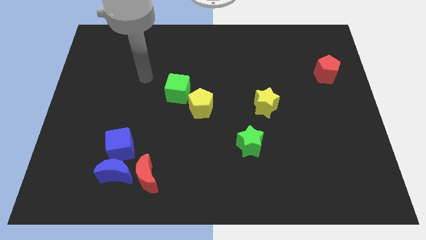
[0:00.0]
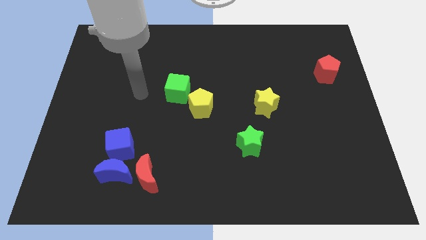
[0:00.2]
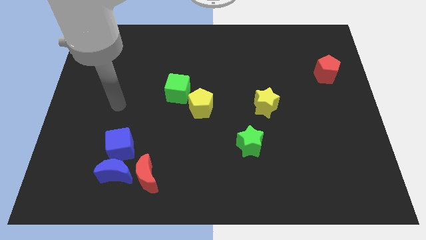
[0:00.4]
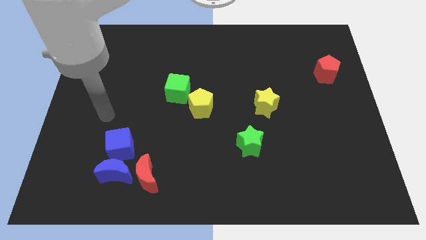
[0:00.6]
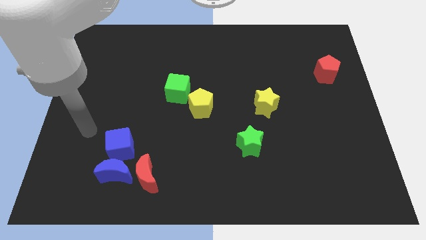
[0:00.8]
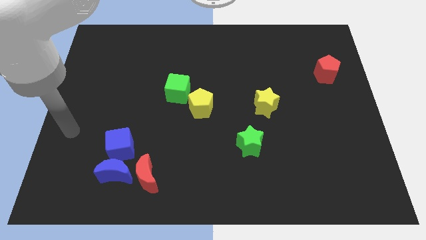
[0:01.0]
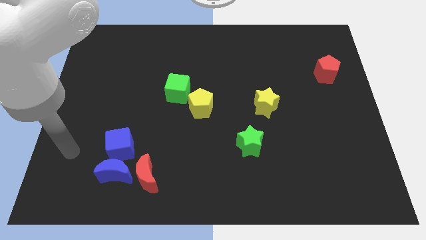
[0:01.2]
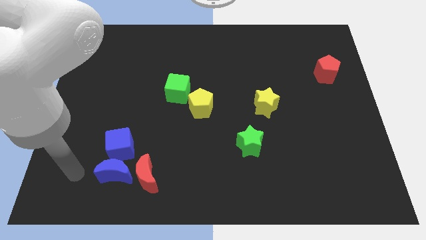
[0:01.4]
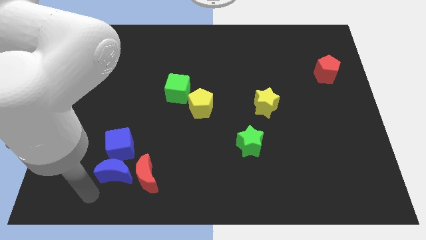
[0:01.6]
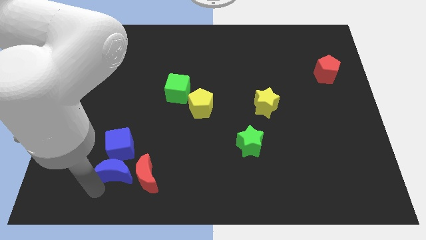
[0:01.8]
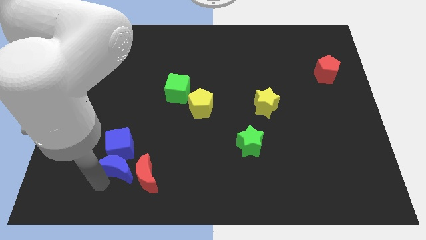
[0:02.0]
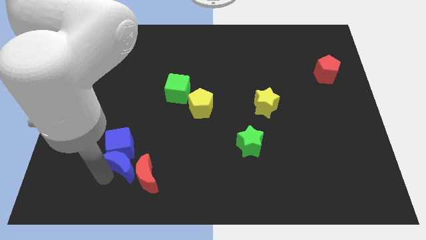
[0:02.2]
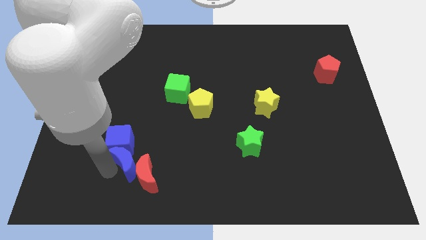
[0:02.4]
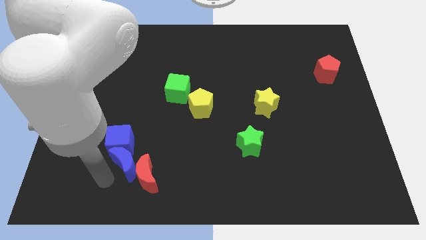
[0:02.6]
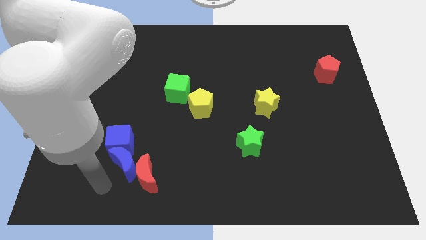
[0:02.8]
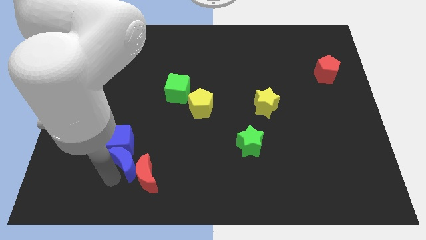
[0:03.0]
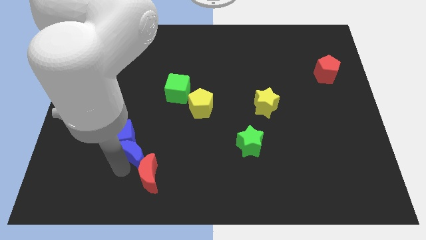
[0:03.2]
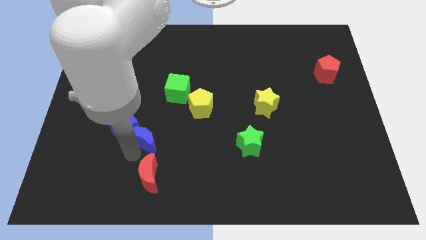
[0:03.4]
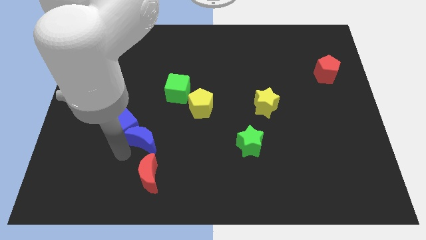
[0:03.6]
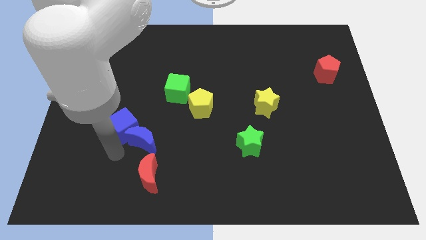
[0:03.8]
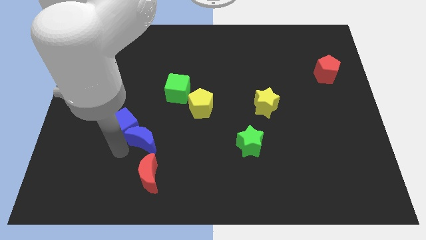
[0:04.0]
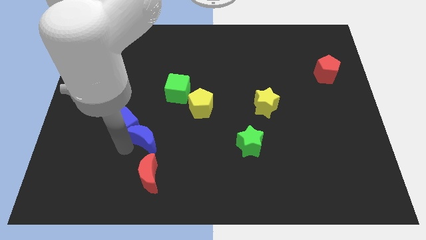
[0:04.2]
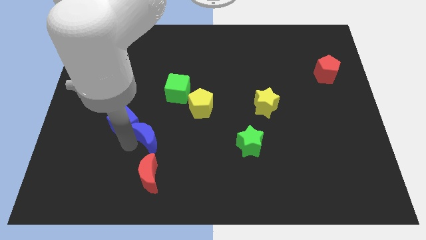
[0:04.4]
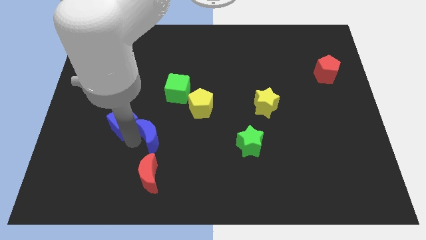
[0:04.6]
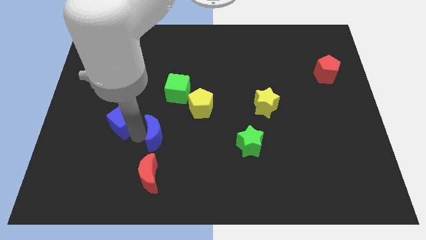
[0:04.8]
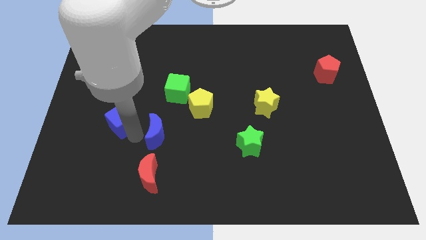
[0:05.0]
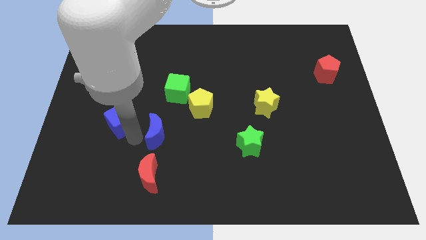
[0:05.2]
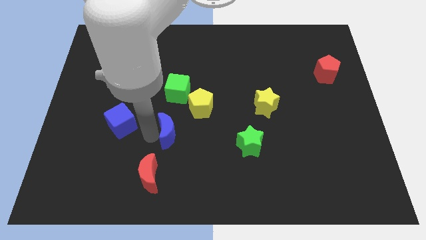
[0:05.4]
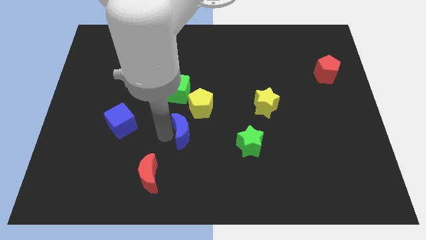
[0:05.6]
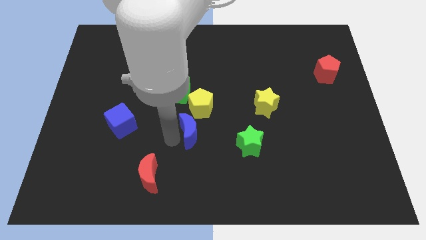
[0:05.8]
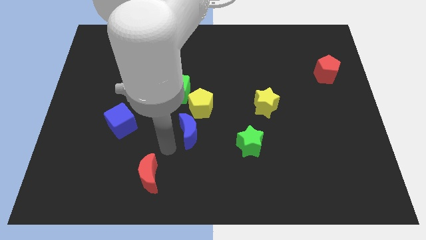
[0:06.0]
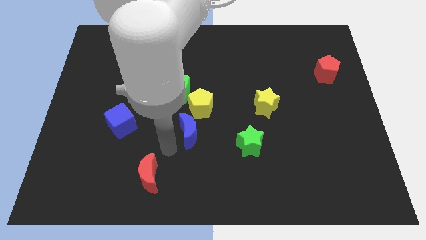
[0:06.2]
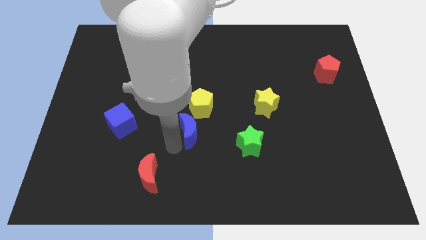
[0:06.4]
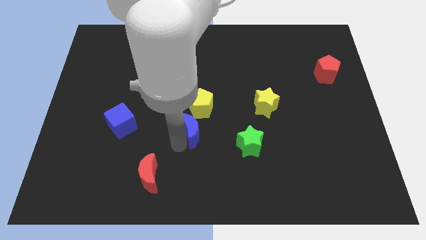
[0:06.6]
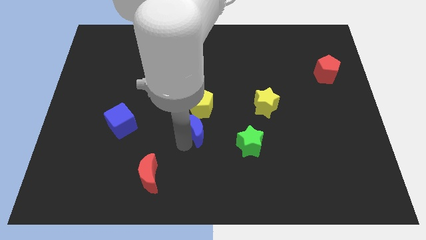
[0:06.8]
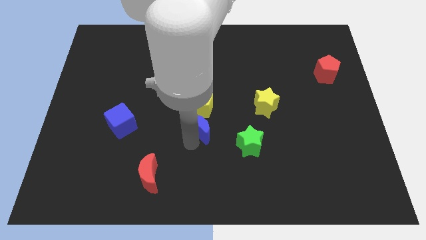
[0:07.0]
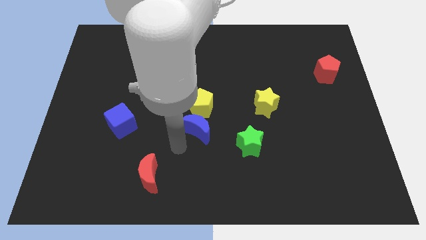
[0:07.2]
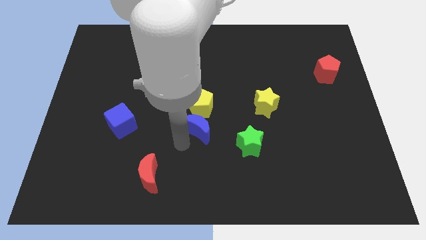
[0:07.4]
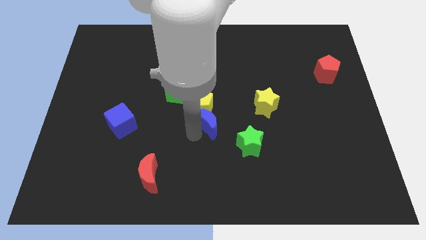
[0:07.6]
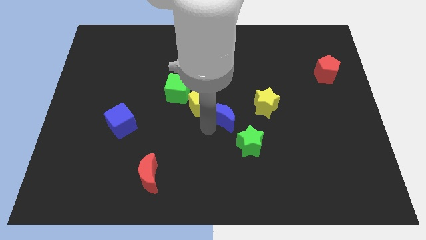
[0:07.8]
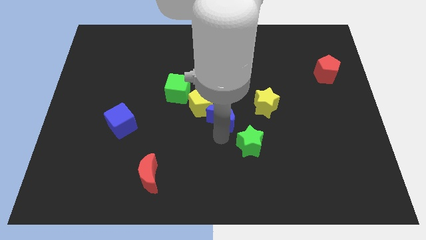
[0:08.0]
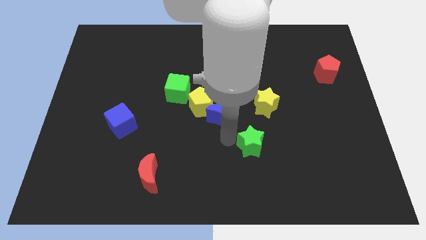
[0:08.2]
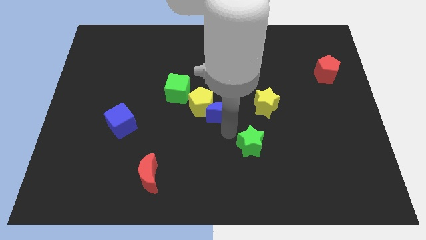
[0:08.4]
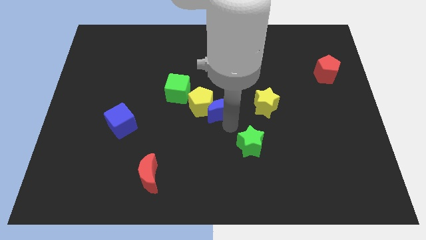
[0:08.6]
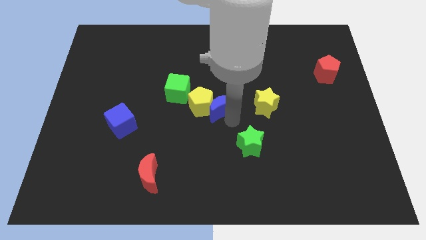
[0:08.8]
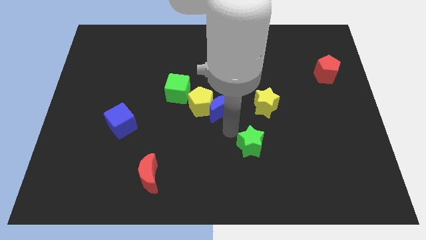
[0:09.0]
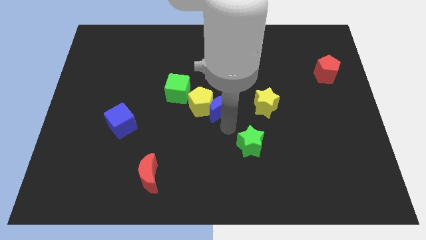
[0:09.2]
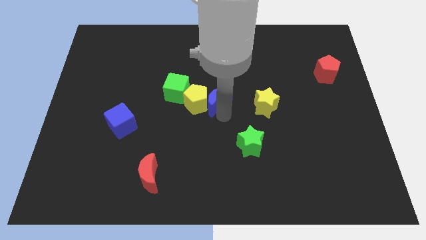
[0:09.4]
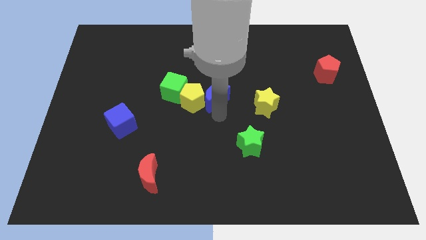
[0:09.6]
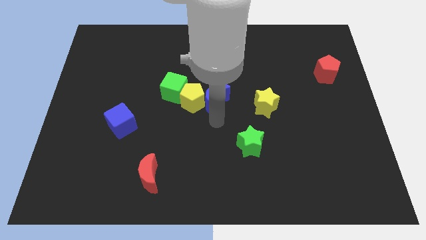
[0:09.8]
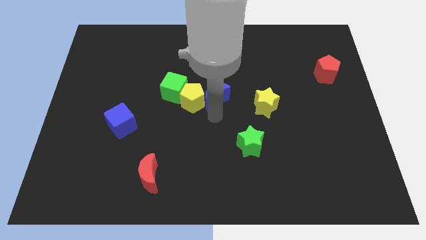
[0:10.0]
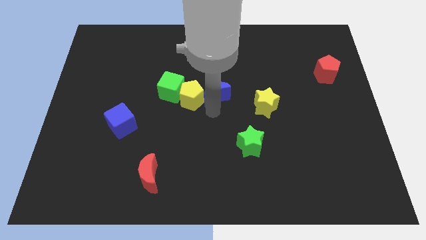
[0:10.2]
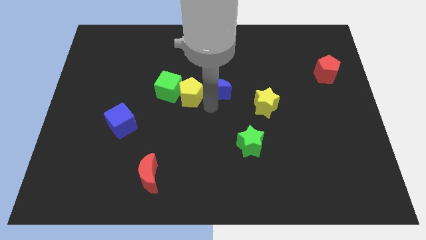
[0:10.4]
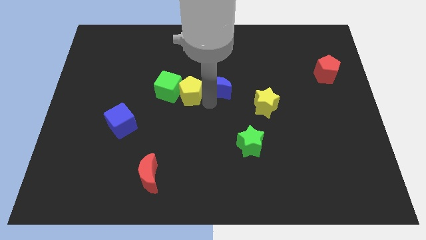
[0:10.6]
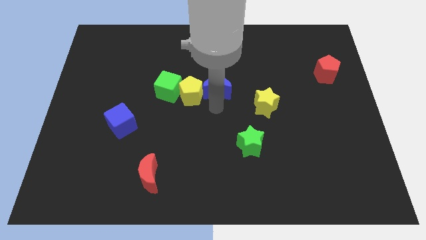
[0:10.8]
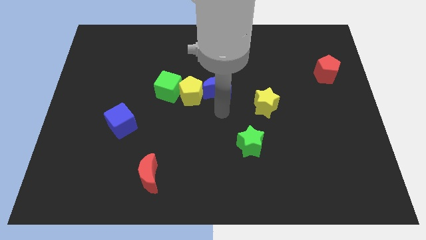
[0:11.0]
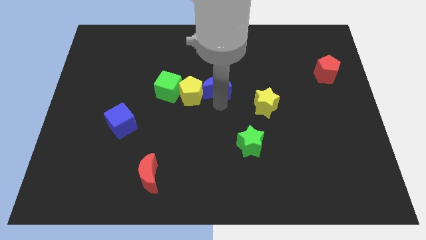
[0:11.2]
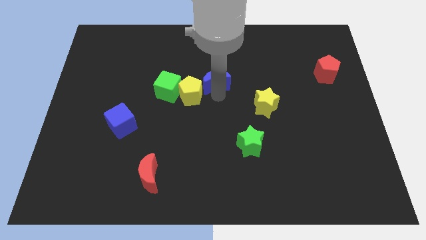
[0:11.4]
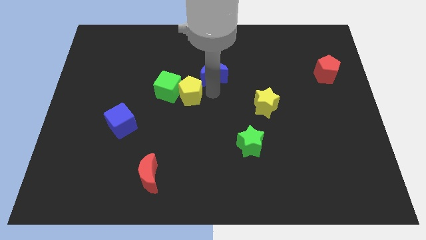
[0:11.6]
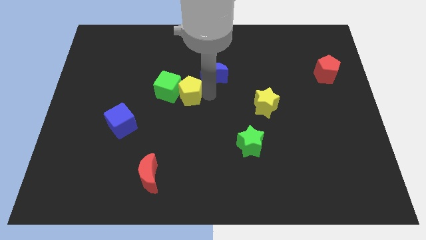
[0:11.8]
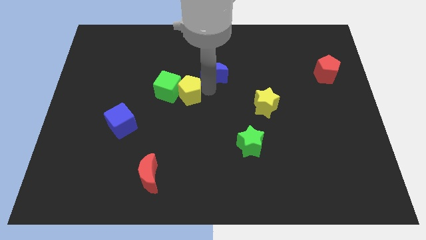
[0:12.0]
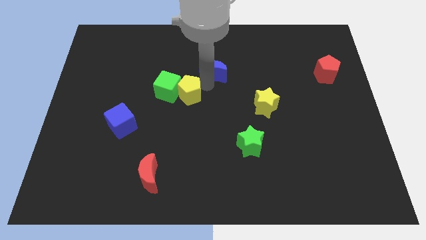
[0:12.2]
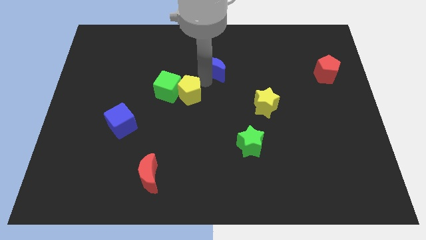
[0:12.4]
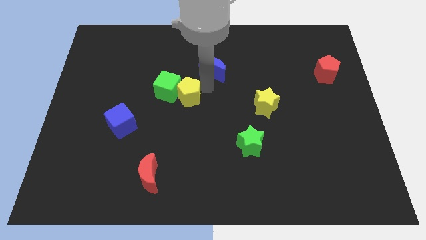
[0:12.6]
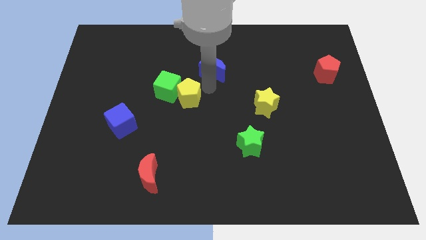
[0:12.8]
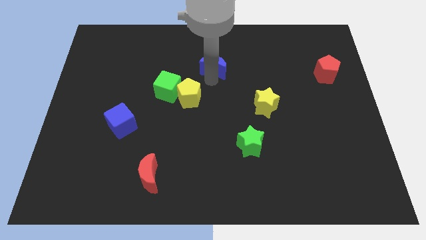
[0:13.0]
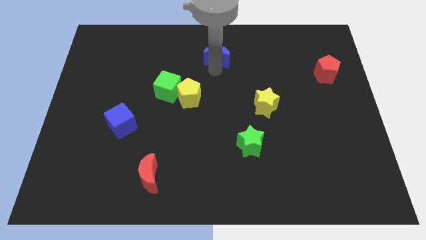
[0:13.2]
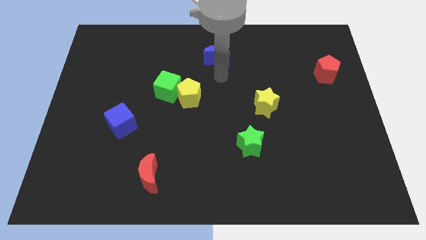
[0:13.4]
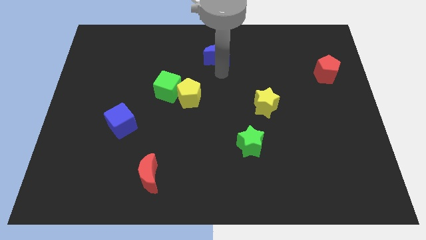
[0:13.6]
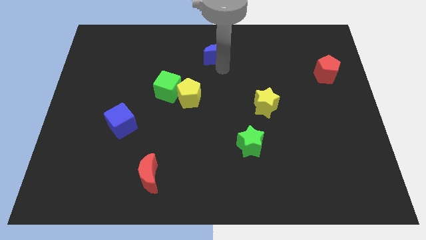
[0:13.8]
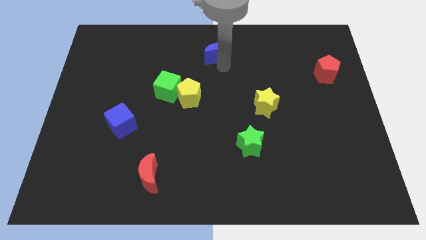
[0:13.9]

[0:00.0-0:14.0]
move the blue moon to the top side

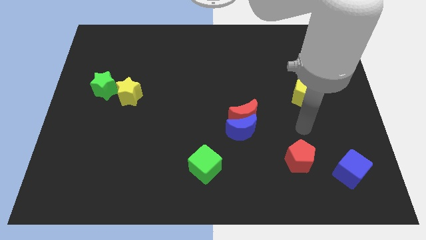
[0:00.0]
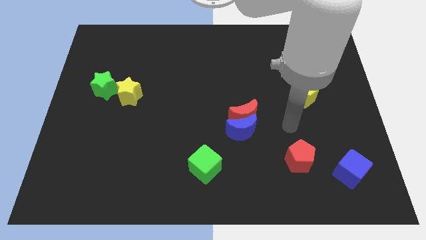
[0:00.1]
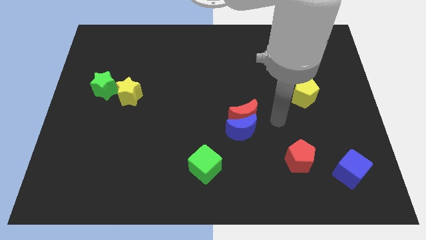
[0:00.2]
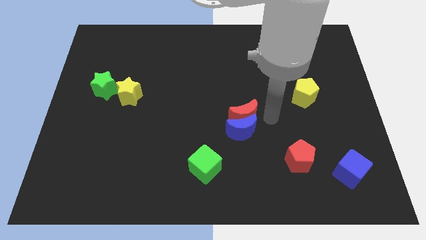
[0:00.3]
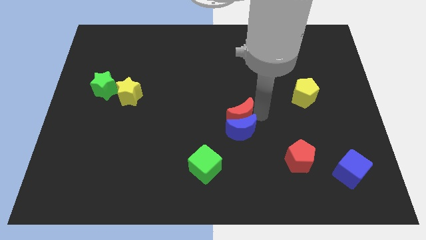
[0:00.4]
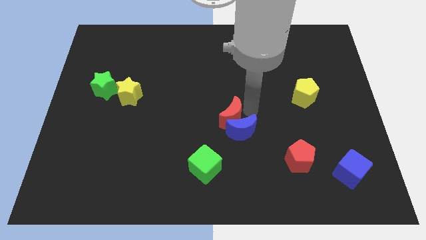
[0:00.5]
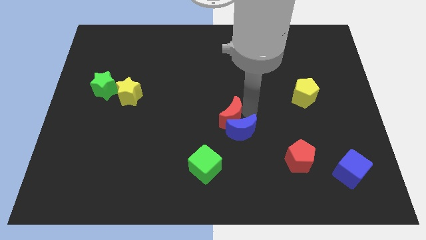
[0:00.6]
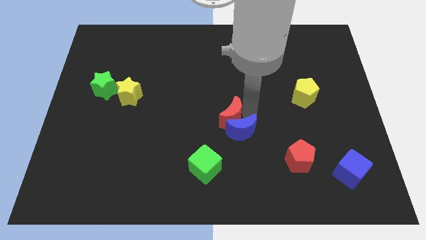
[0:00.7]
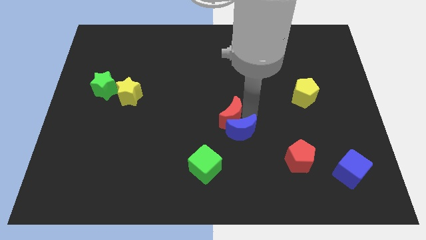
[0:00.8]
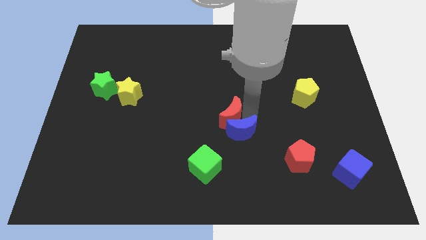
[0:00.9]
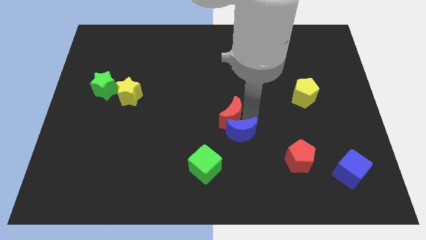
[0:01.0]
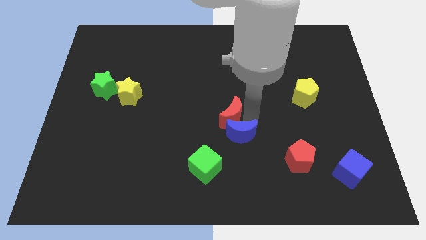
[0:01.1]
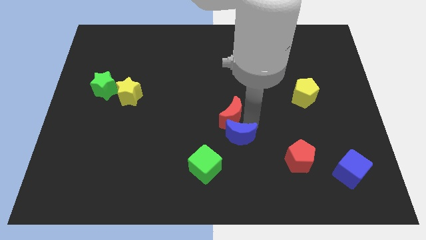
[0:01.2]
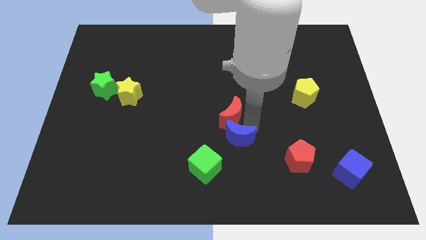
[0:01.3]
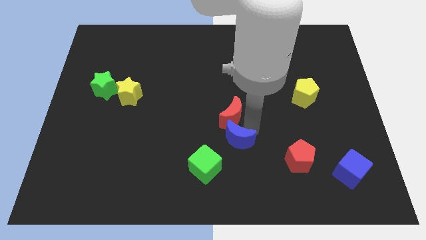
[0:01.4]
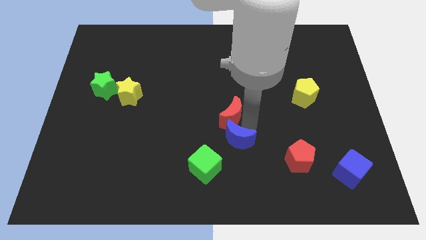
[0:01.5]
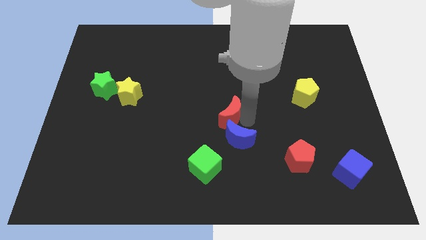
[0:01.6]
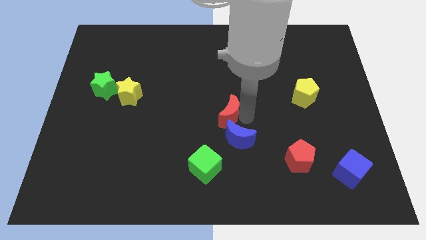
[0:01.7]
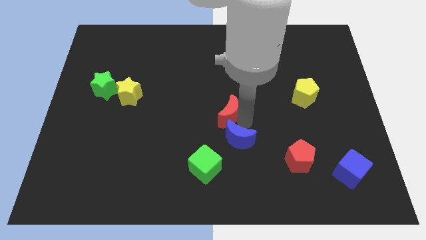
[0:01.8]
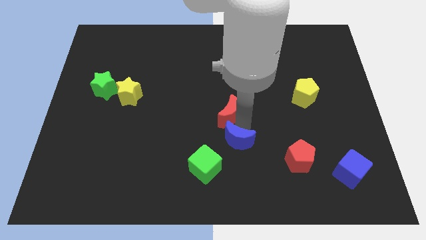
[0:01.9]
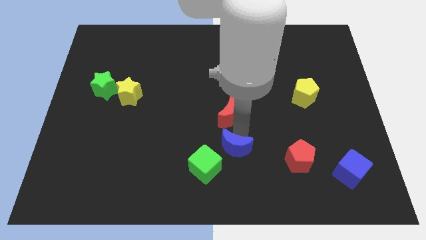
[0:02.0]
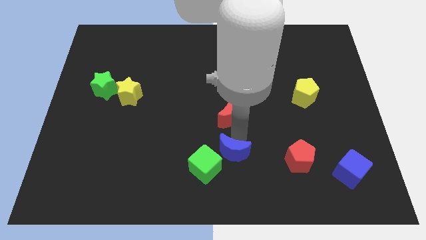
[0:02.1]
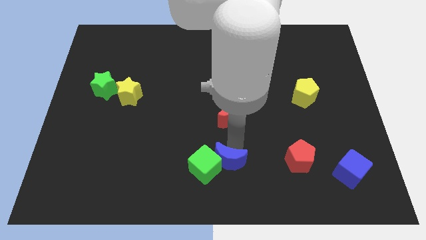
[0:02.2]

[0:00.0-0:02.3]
put the blue moon to the bottom side
